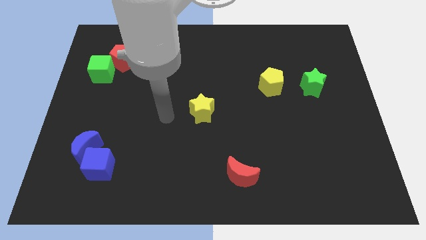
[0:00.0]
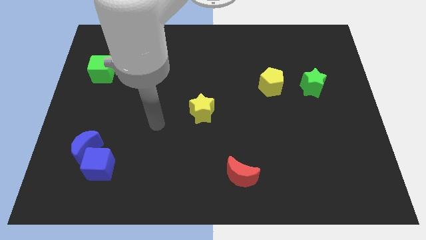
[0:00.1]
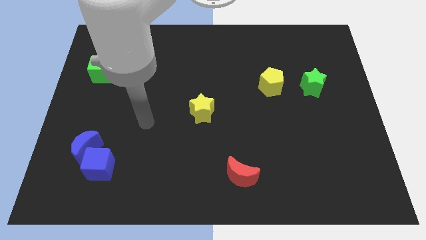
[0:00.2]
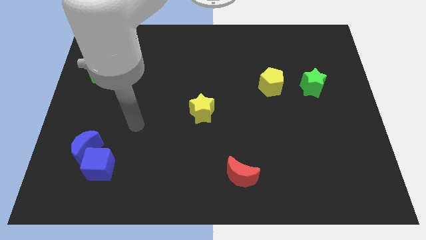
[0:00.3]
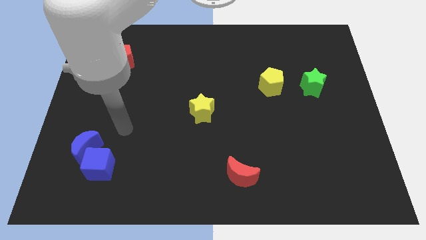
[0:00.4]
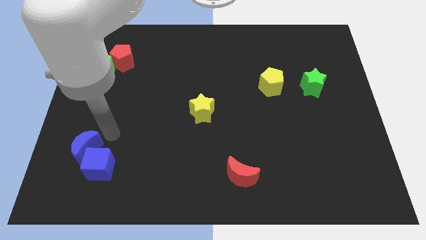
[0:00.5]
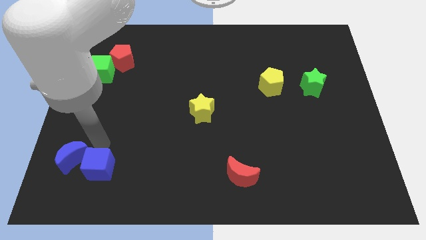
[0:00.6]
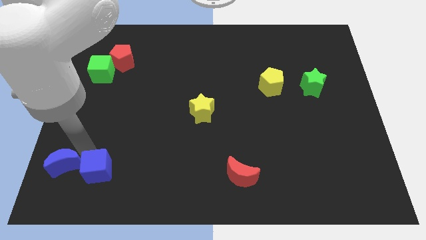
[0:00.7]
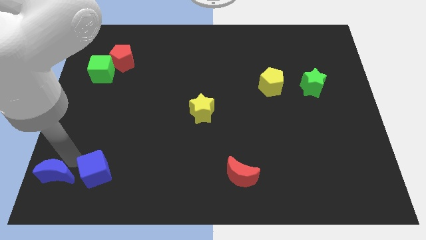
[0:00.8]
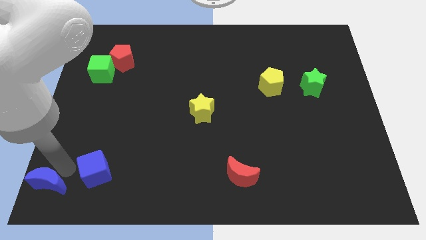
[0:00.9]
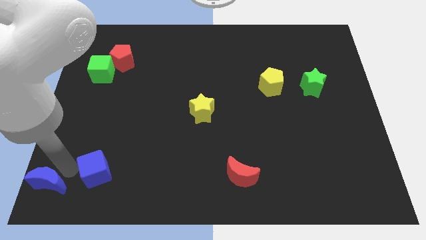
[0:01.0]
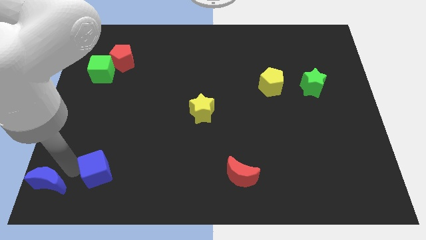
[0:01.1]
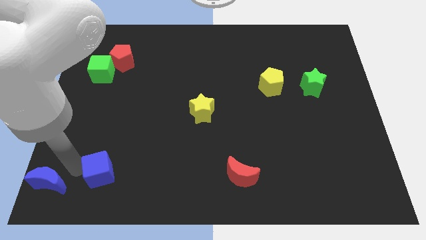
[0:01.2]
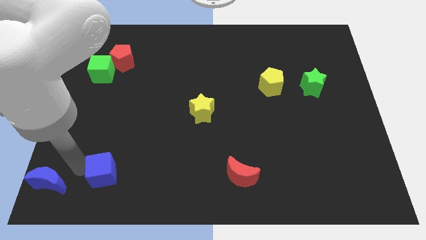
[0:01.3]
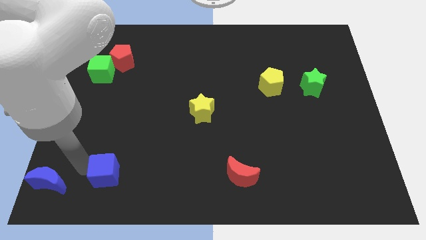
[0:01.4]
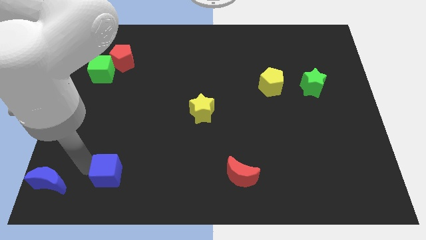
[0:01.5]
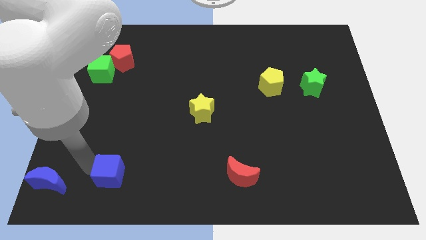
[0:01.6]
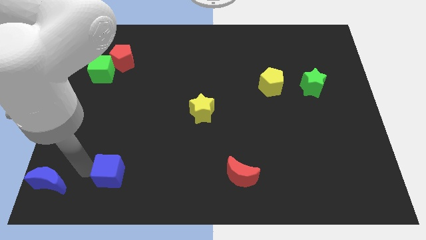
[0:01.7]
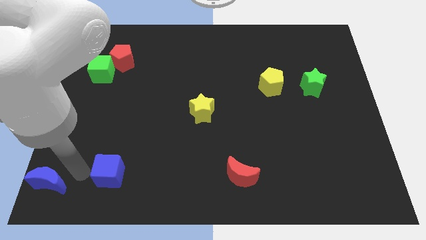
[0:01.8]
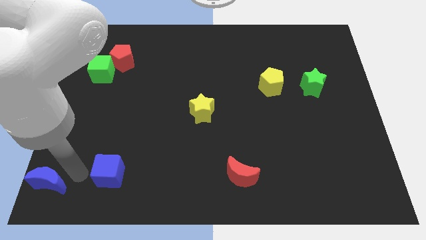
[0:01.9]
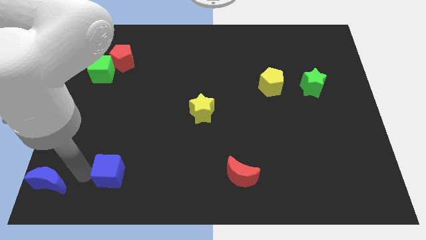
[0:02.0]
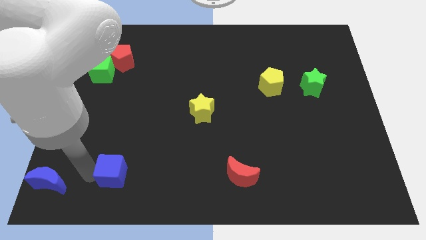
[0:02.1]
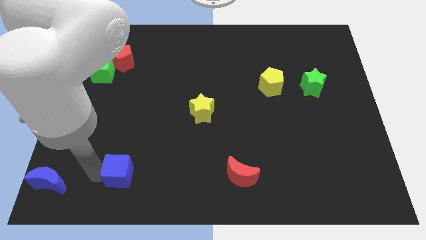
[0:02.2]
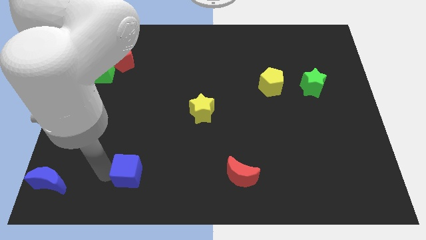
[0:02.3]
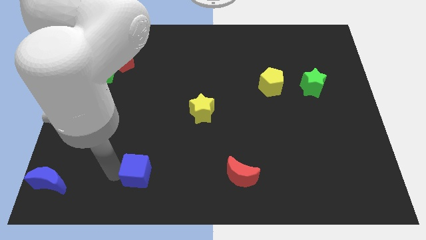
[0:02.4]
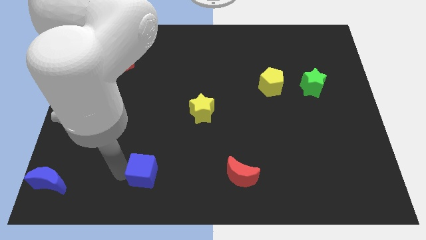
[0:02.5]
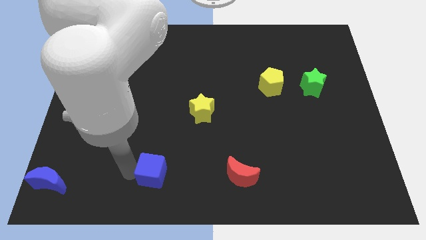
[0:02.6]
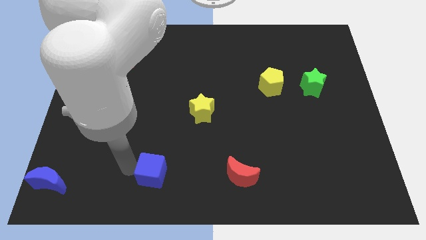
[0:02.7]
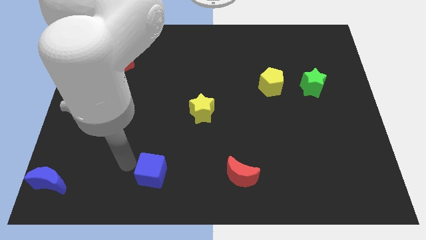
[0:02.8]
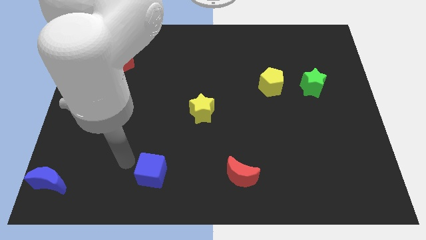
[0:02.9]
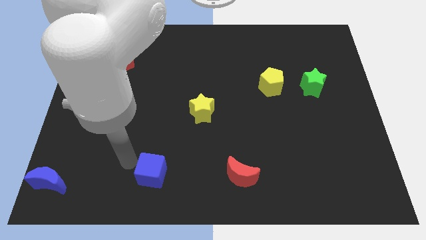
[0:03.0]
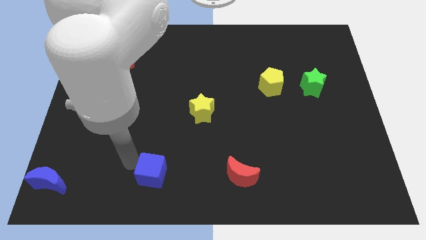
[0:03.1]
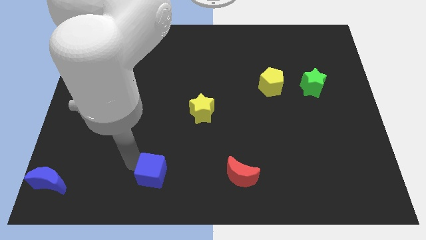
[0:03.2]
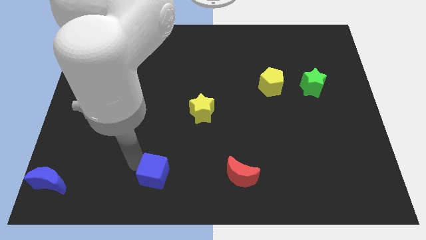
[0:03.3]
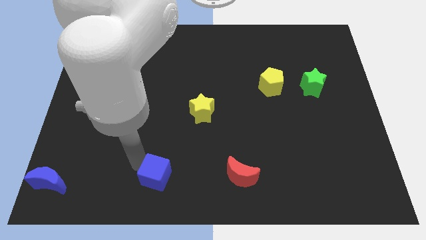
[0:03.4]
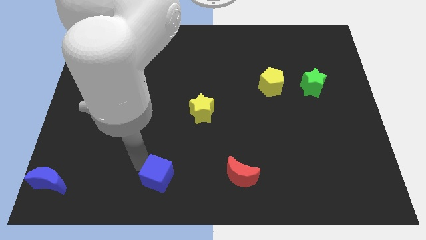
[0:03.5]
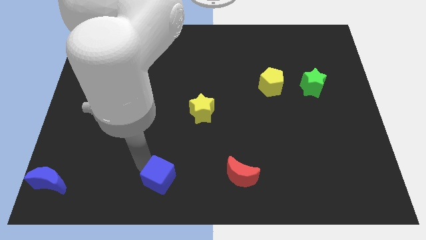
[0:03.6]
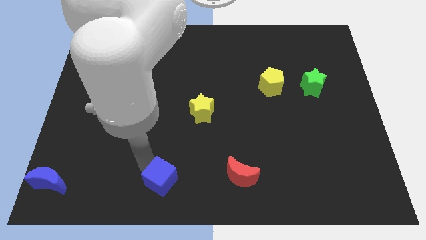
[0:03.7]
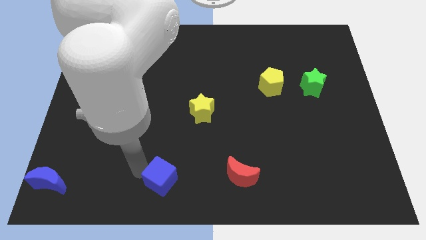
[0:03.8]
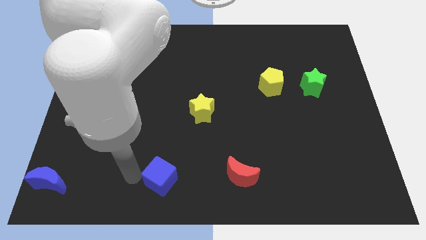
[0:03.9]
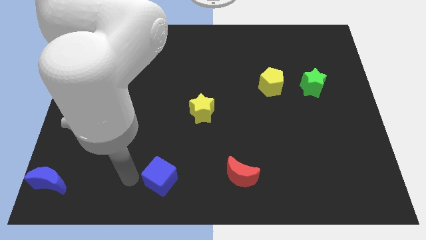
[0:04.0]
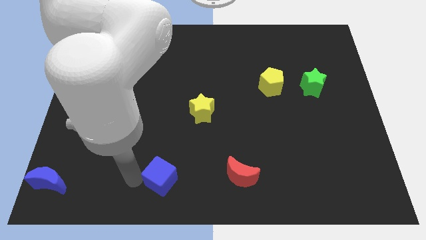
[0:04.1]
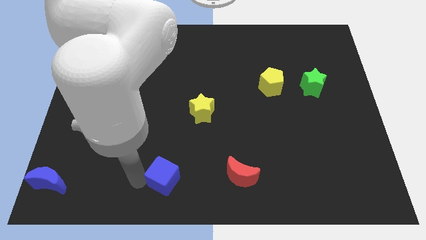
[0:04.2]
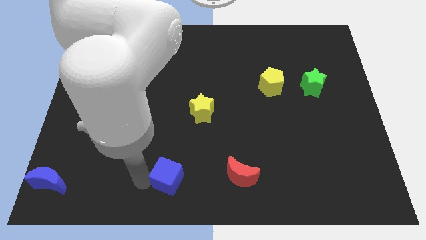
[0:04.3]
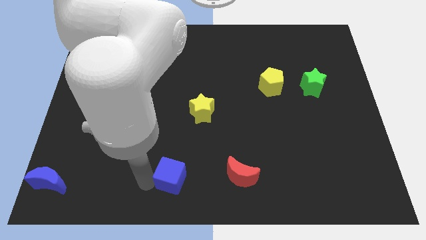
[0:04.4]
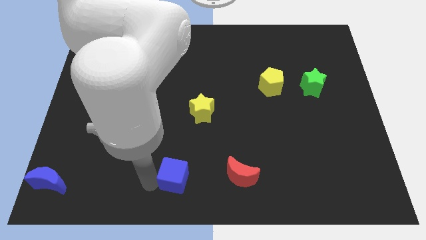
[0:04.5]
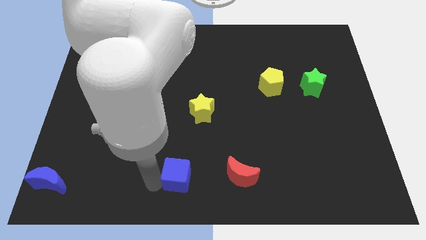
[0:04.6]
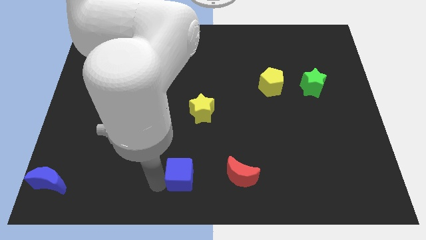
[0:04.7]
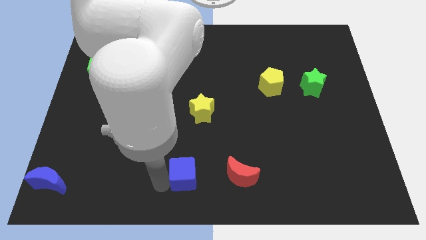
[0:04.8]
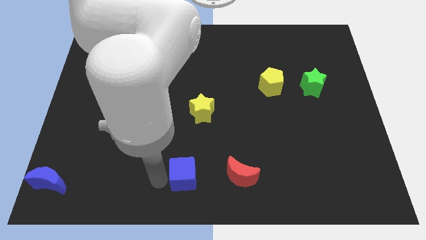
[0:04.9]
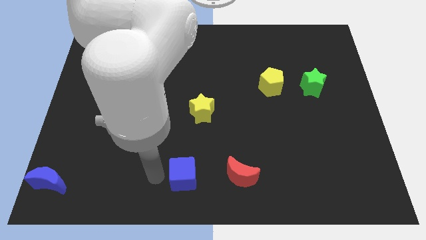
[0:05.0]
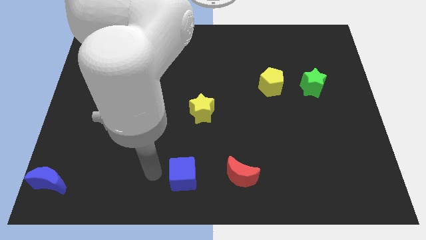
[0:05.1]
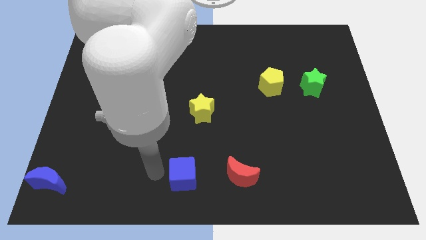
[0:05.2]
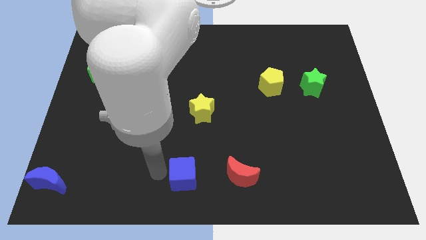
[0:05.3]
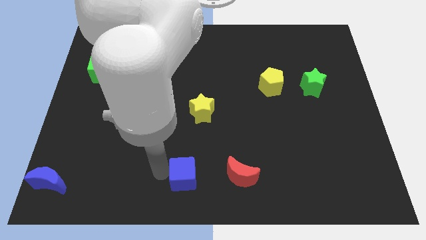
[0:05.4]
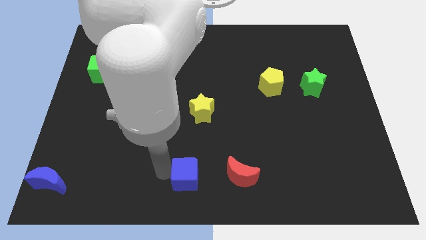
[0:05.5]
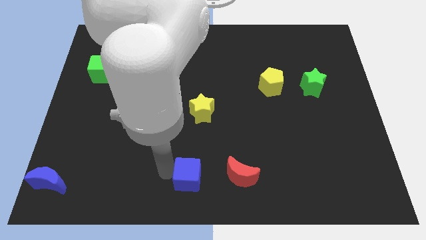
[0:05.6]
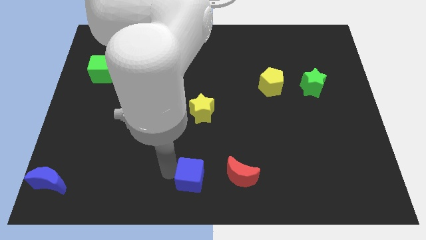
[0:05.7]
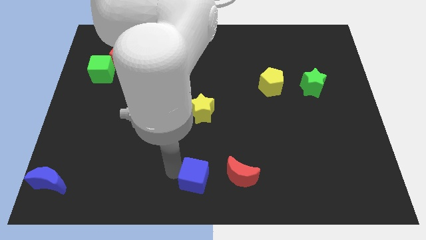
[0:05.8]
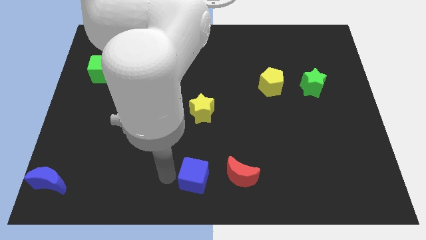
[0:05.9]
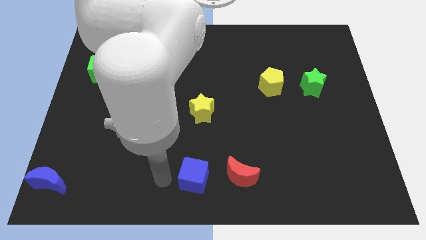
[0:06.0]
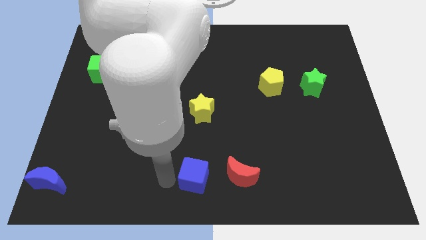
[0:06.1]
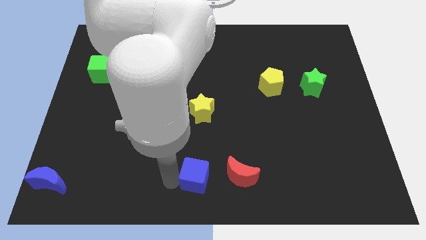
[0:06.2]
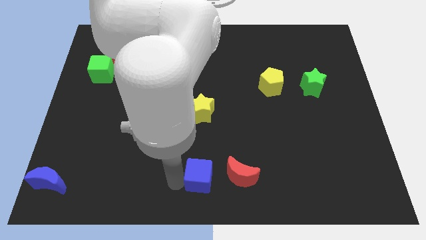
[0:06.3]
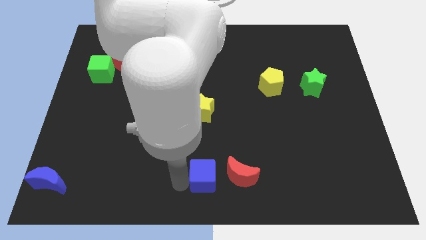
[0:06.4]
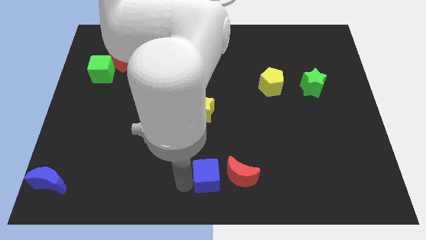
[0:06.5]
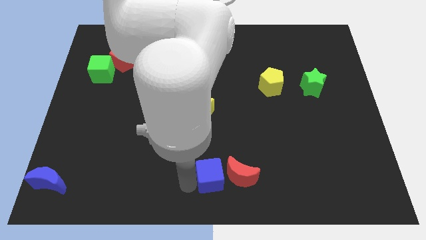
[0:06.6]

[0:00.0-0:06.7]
push the blue cube close to the red moon
